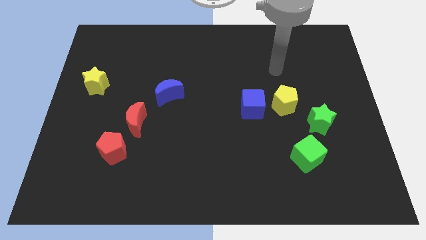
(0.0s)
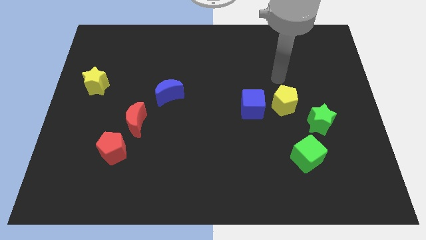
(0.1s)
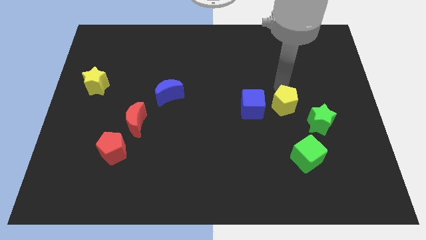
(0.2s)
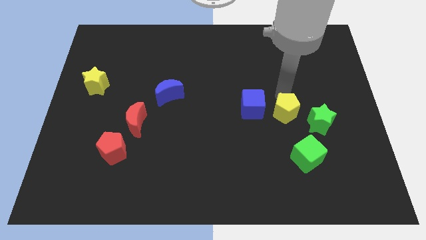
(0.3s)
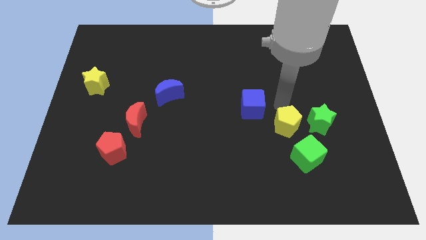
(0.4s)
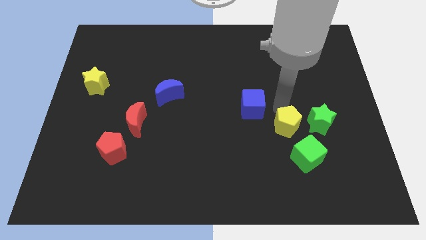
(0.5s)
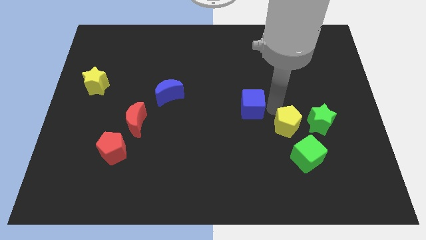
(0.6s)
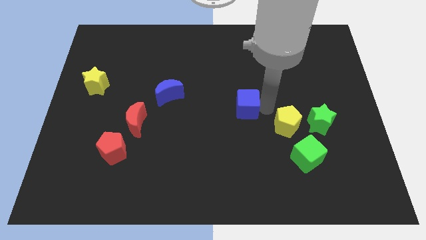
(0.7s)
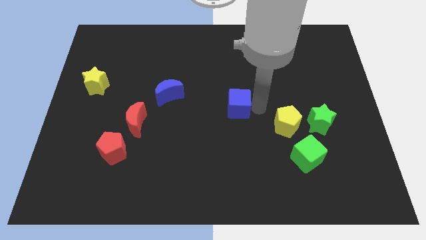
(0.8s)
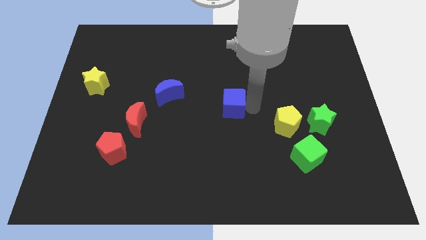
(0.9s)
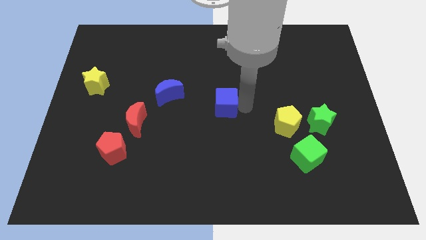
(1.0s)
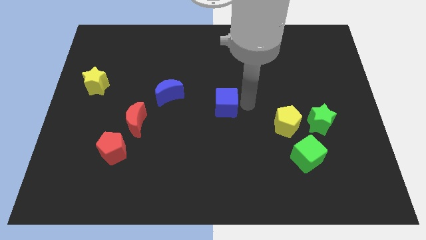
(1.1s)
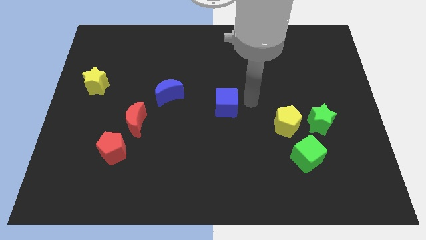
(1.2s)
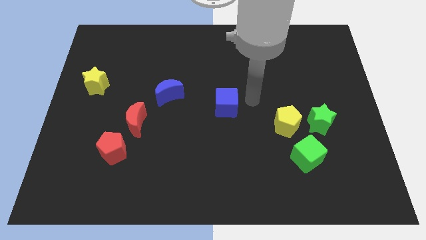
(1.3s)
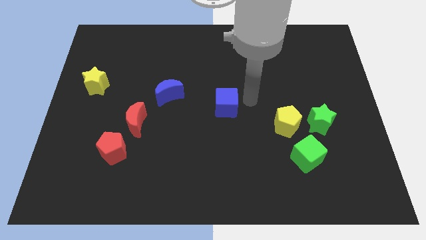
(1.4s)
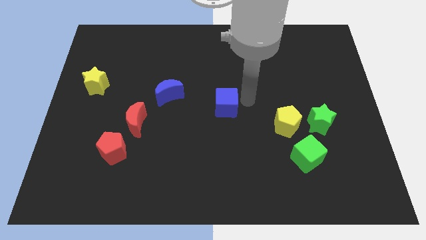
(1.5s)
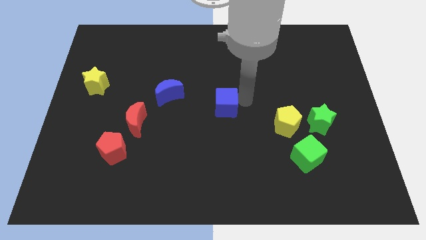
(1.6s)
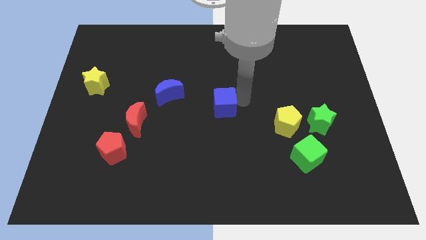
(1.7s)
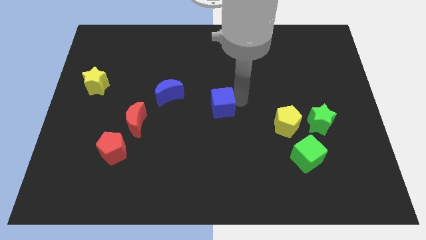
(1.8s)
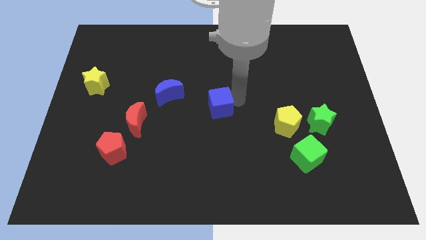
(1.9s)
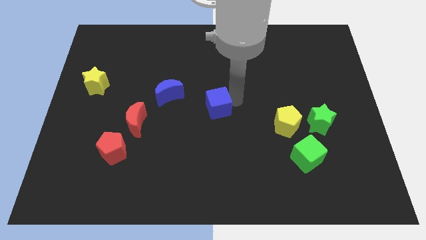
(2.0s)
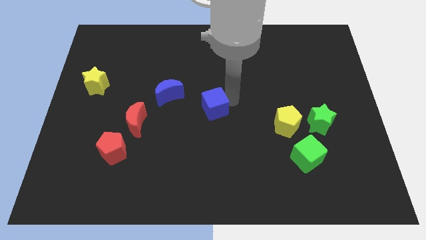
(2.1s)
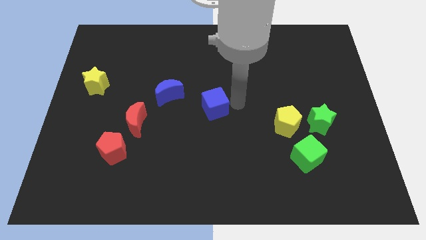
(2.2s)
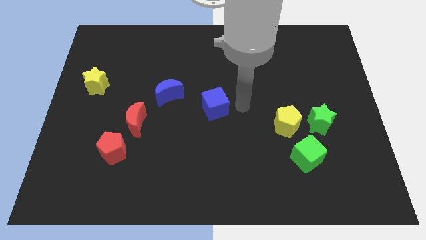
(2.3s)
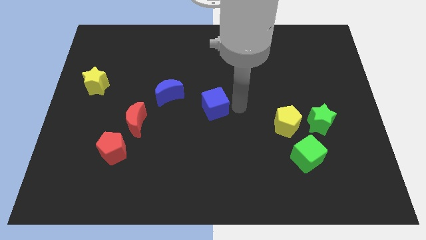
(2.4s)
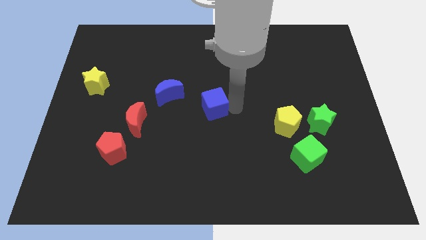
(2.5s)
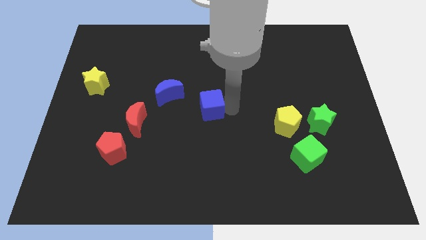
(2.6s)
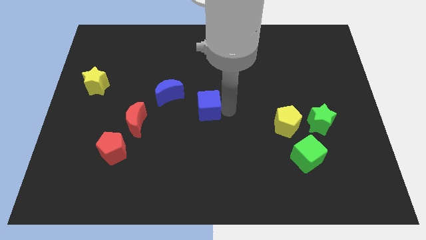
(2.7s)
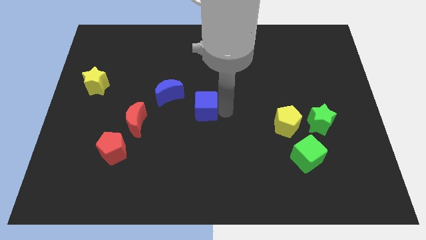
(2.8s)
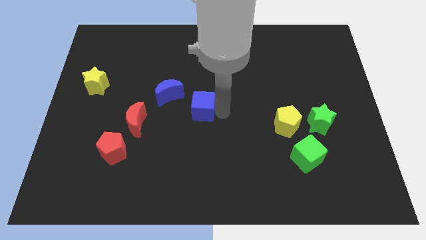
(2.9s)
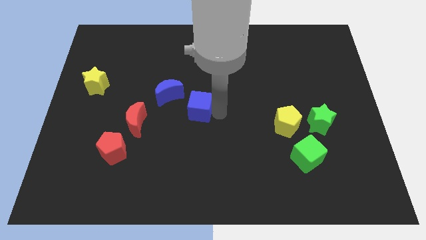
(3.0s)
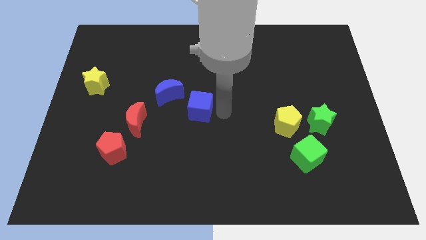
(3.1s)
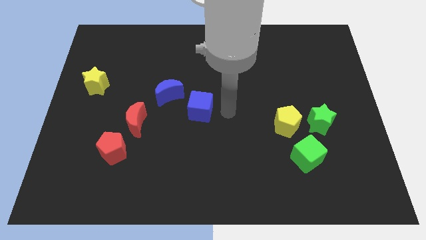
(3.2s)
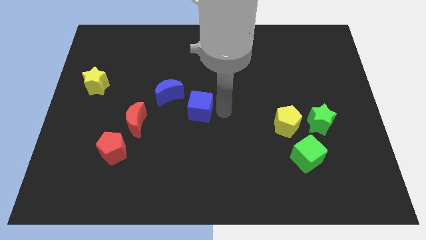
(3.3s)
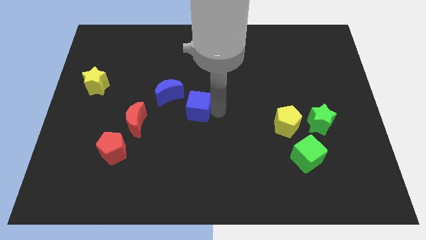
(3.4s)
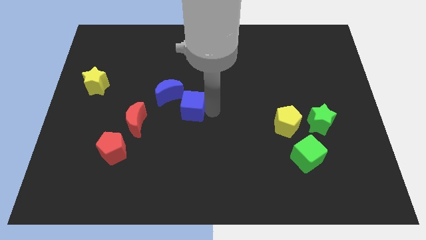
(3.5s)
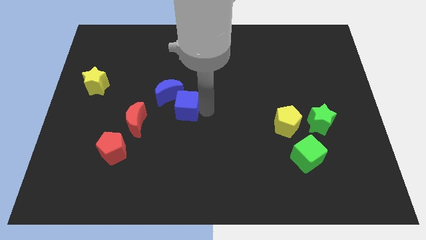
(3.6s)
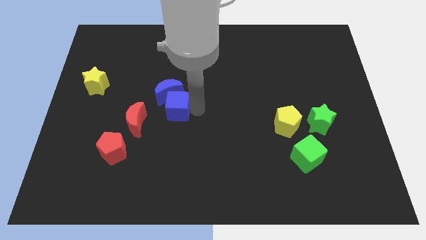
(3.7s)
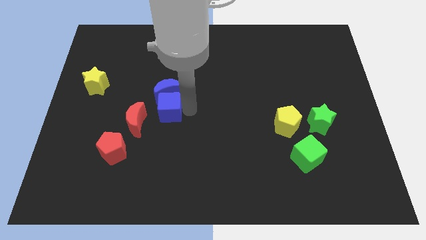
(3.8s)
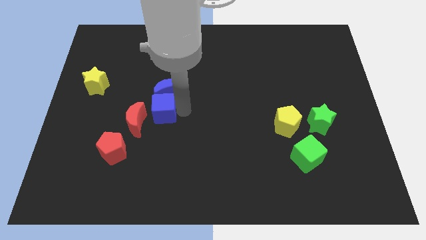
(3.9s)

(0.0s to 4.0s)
move the blue cube left

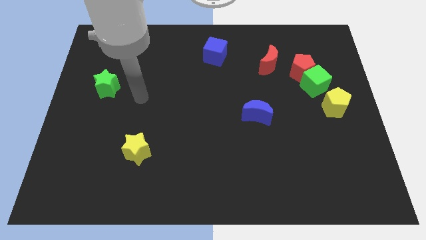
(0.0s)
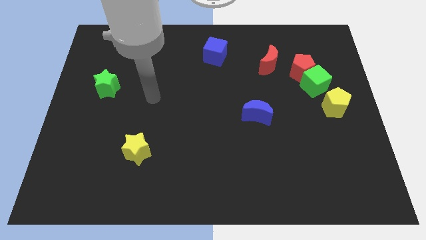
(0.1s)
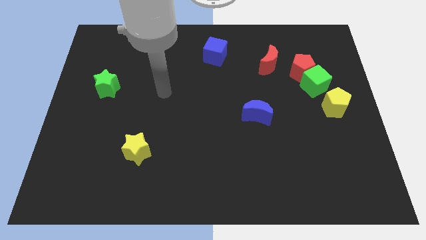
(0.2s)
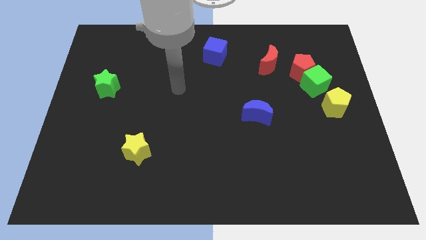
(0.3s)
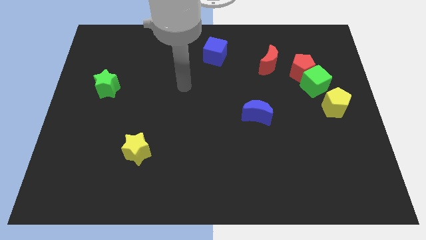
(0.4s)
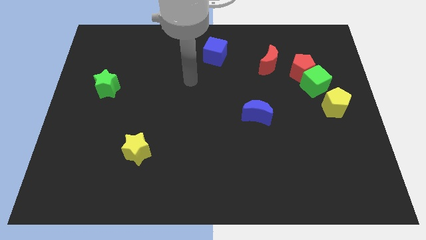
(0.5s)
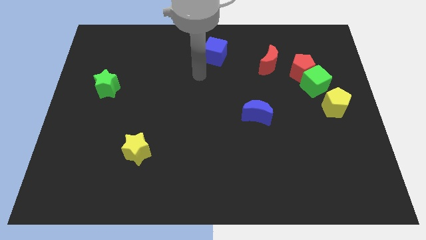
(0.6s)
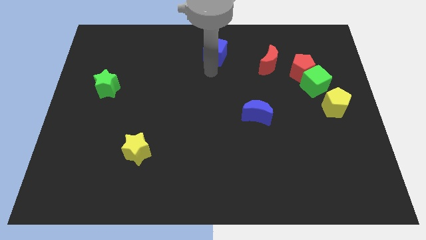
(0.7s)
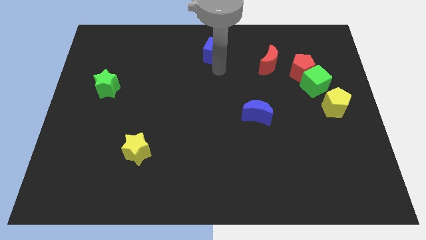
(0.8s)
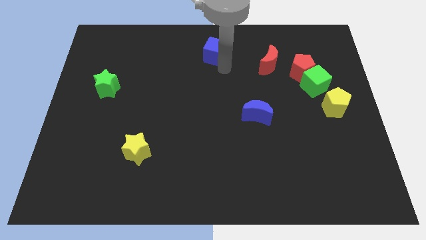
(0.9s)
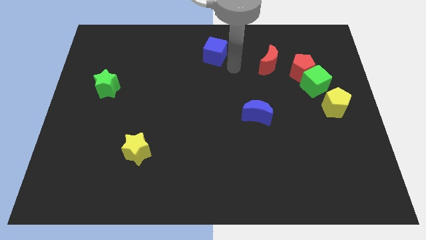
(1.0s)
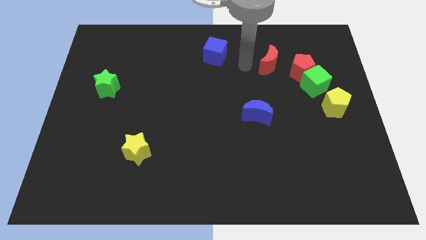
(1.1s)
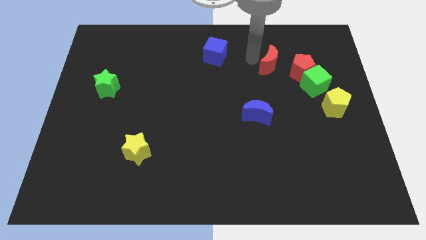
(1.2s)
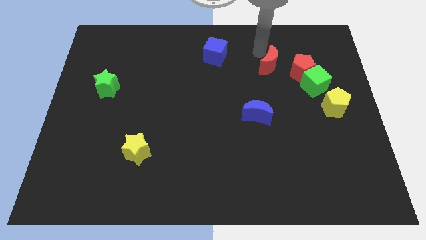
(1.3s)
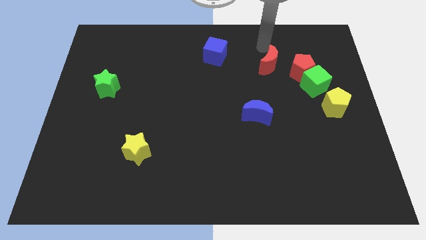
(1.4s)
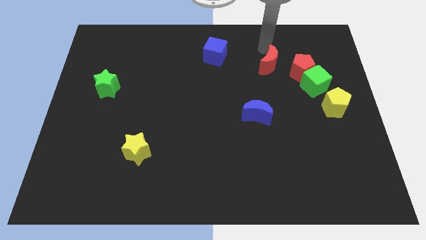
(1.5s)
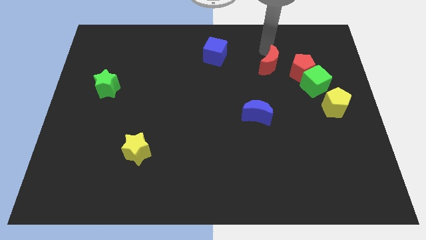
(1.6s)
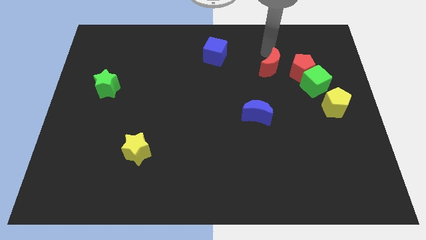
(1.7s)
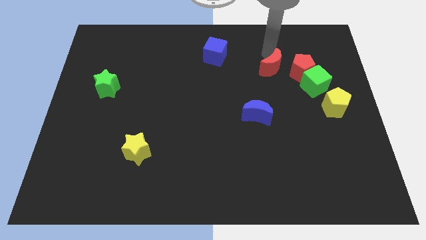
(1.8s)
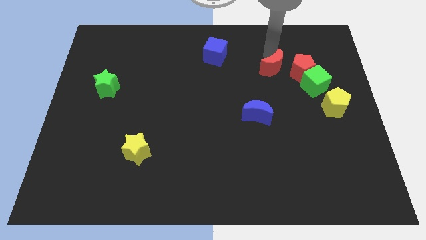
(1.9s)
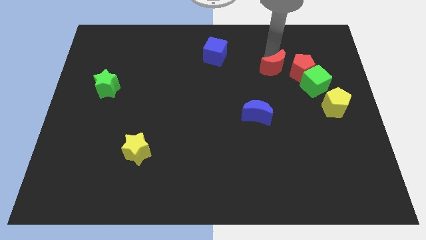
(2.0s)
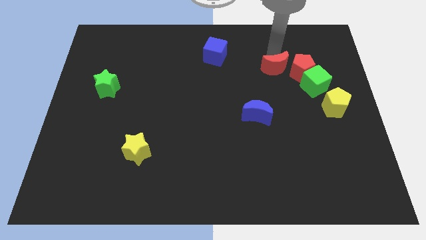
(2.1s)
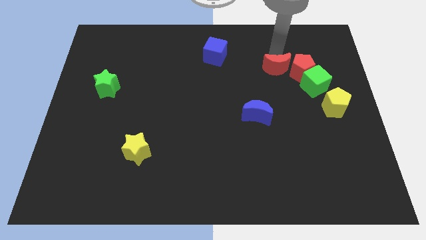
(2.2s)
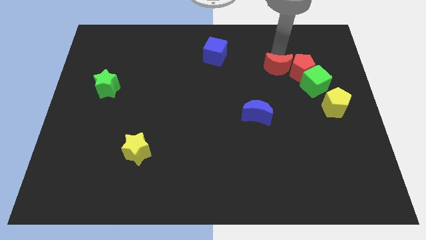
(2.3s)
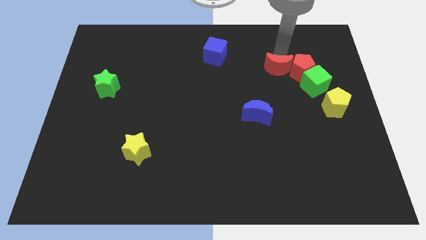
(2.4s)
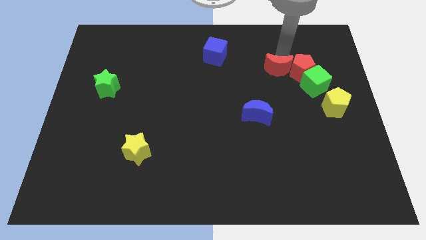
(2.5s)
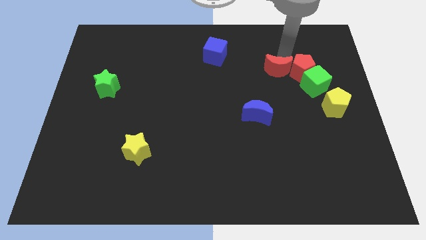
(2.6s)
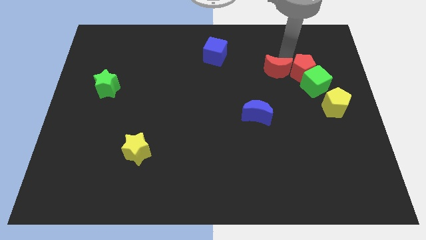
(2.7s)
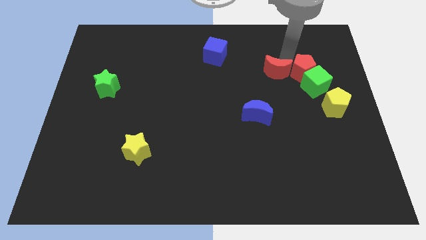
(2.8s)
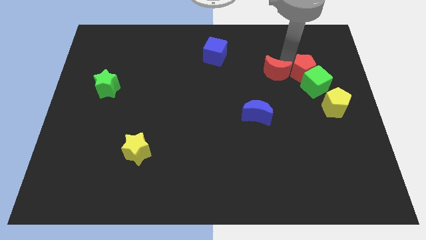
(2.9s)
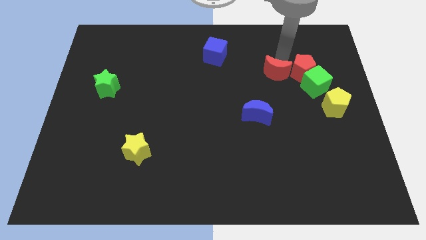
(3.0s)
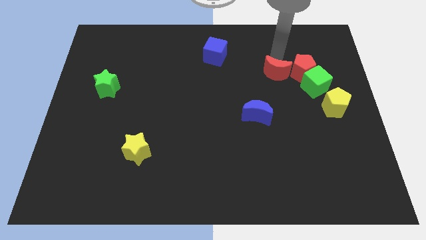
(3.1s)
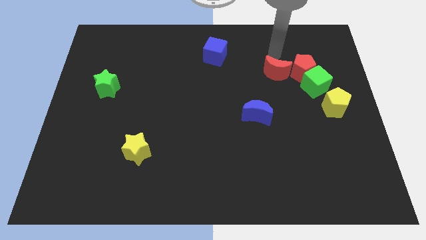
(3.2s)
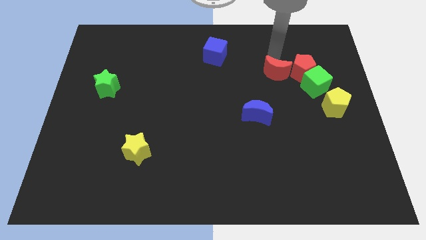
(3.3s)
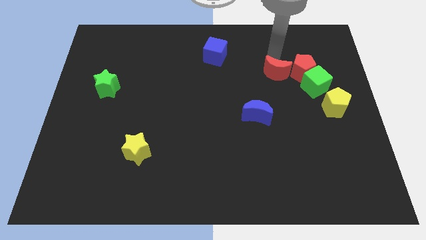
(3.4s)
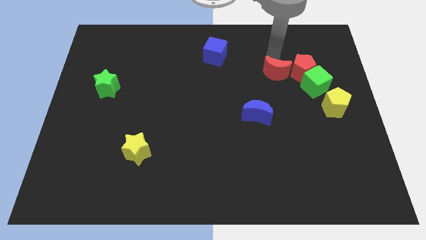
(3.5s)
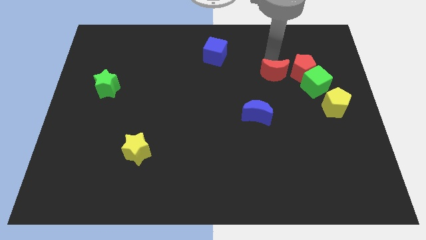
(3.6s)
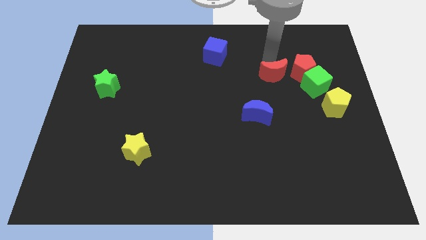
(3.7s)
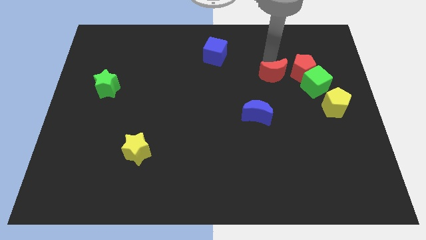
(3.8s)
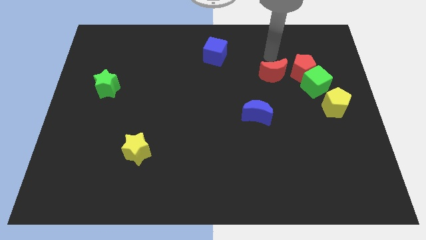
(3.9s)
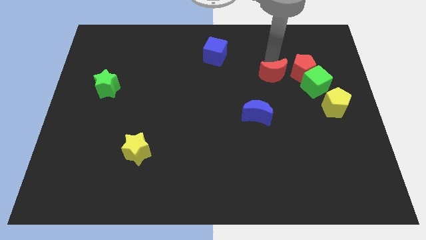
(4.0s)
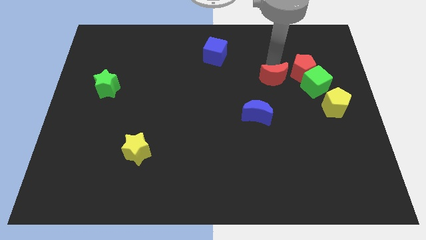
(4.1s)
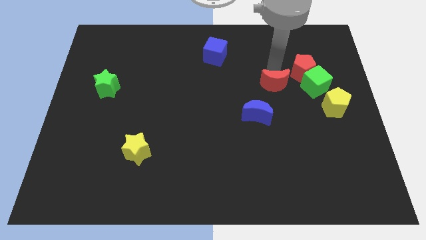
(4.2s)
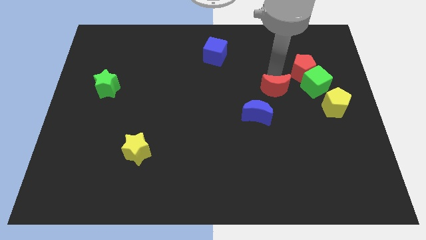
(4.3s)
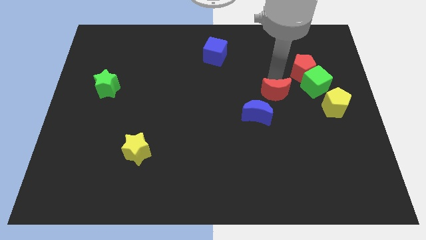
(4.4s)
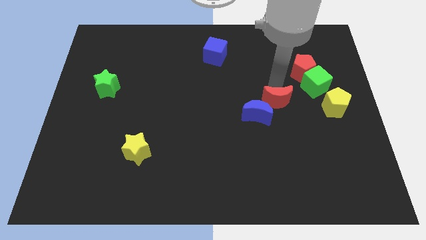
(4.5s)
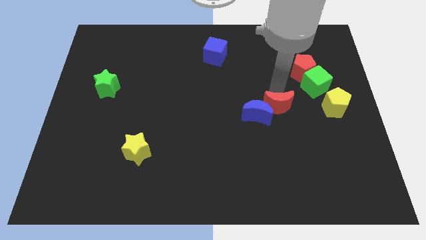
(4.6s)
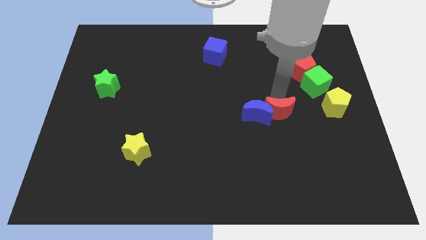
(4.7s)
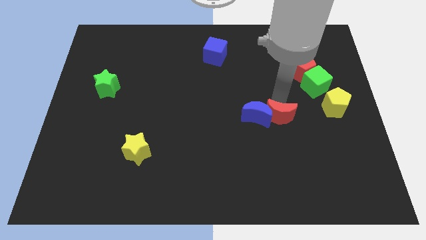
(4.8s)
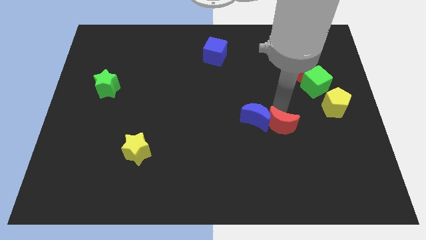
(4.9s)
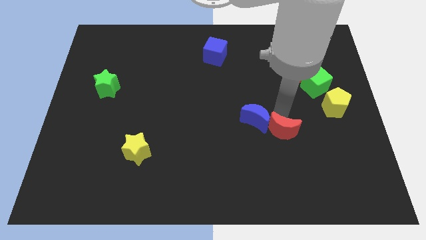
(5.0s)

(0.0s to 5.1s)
slide the red moon downwards
